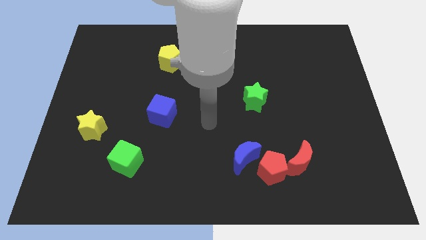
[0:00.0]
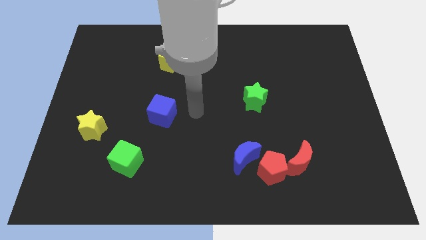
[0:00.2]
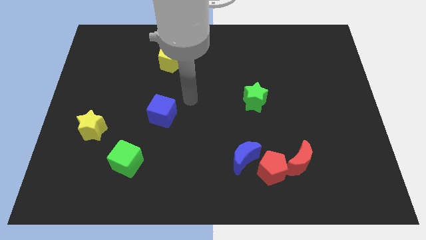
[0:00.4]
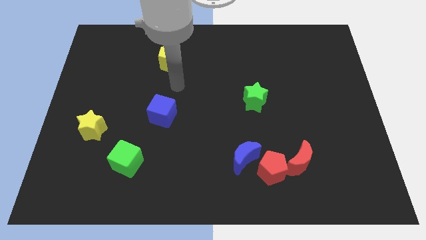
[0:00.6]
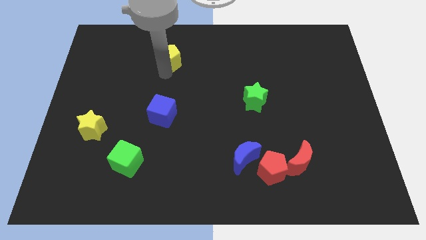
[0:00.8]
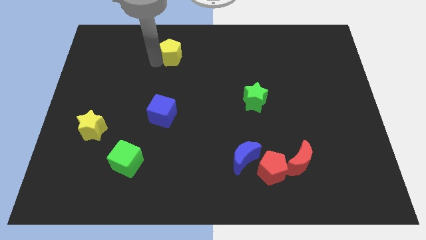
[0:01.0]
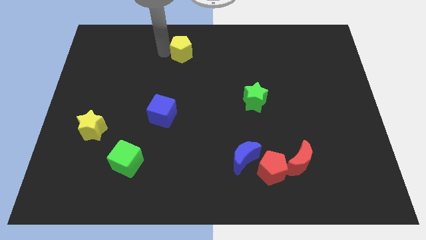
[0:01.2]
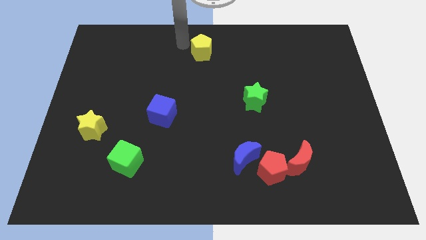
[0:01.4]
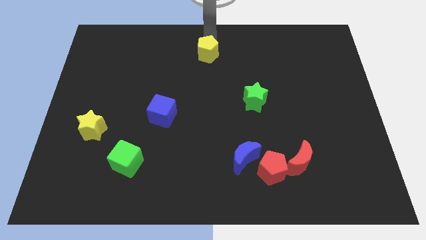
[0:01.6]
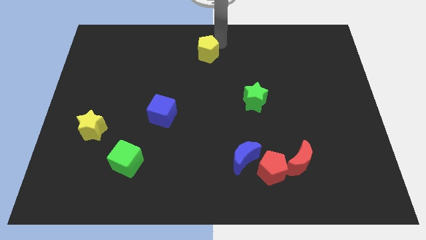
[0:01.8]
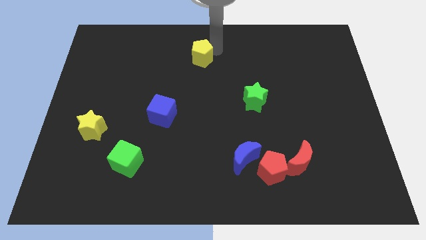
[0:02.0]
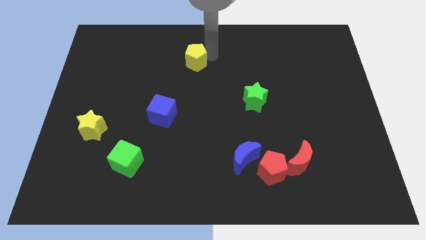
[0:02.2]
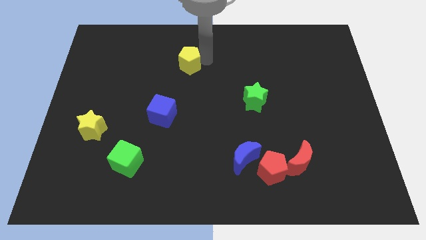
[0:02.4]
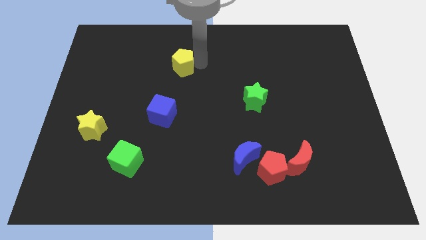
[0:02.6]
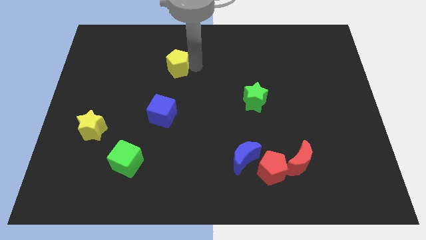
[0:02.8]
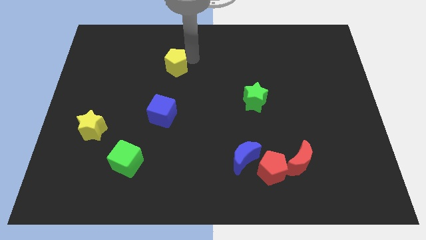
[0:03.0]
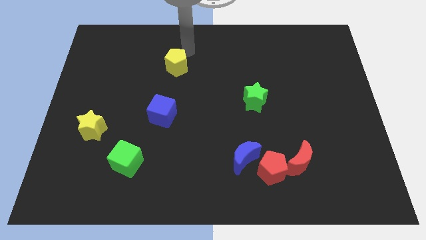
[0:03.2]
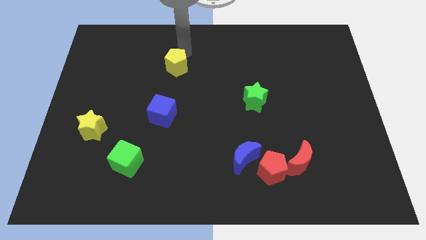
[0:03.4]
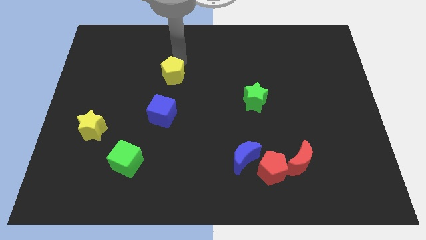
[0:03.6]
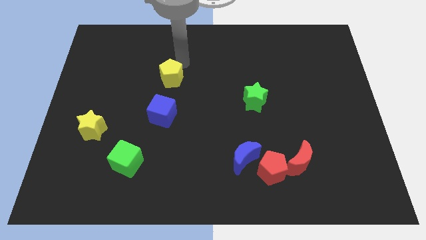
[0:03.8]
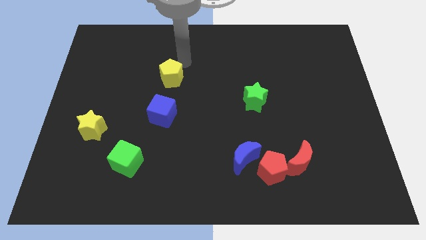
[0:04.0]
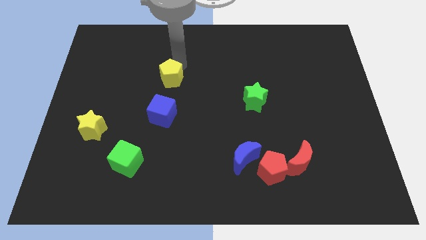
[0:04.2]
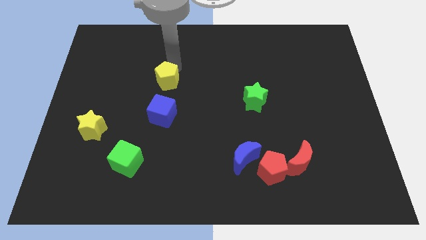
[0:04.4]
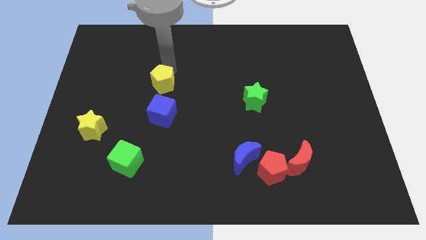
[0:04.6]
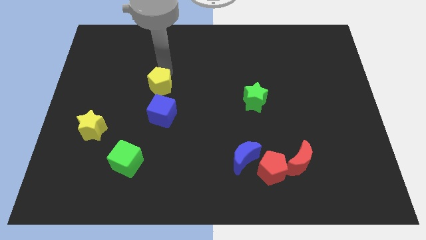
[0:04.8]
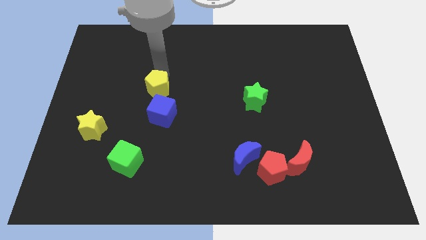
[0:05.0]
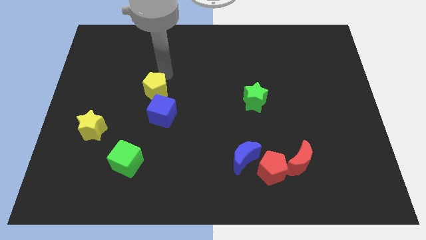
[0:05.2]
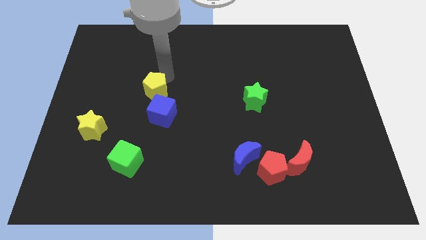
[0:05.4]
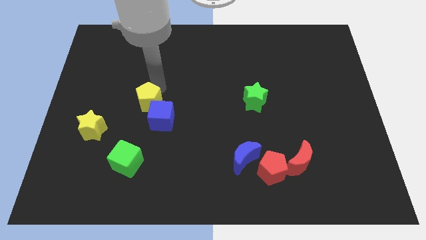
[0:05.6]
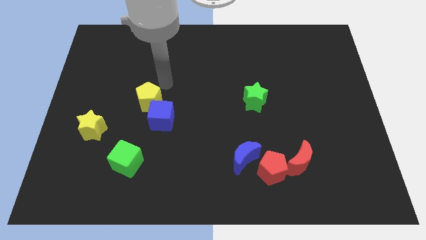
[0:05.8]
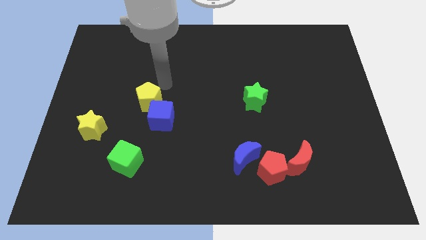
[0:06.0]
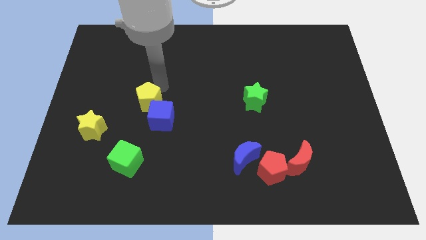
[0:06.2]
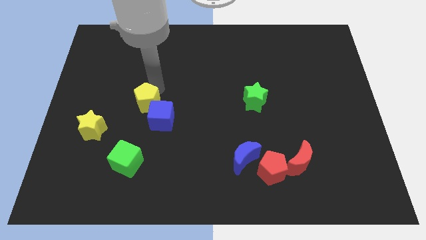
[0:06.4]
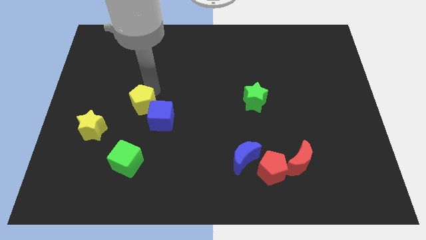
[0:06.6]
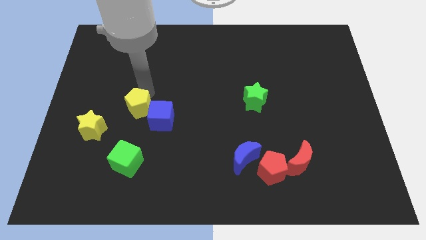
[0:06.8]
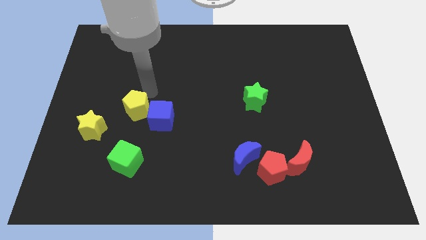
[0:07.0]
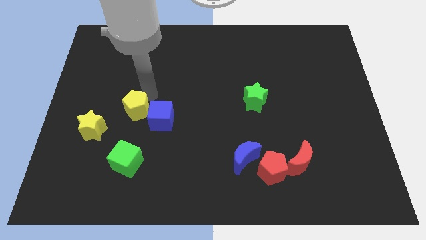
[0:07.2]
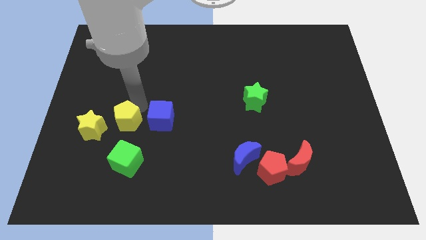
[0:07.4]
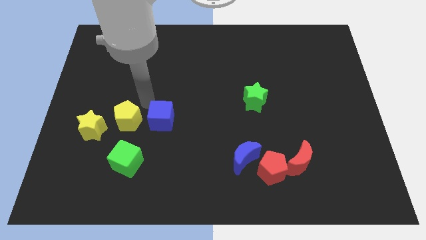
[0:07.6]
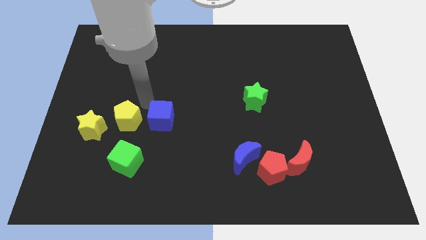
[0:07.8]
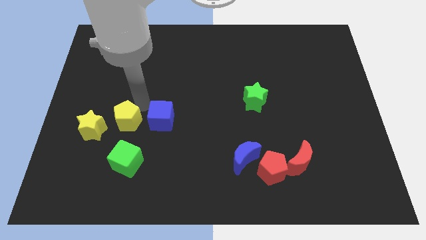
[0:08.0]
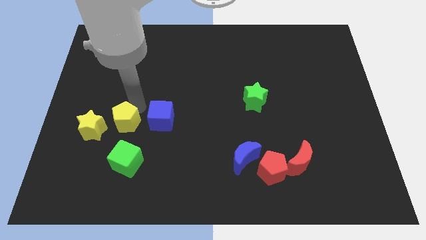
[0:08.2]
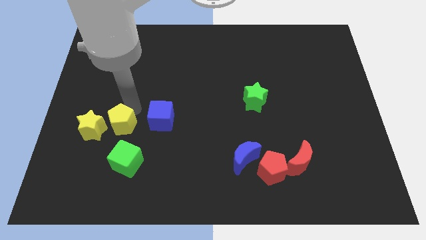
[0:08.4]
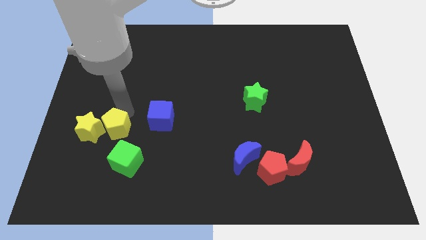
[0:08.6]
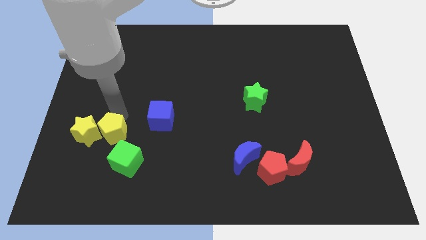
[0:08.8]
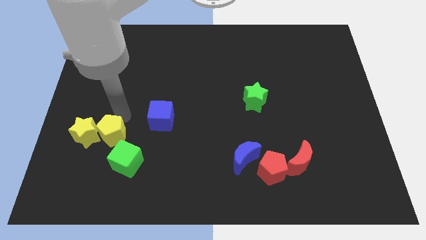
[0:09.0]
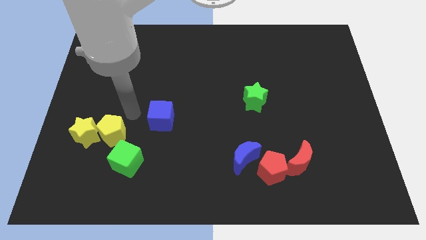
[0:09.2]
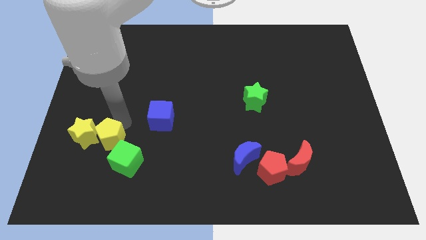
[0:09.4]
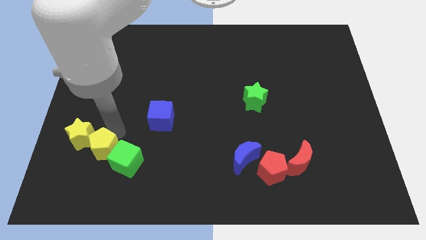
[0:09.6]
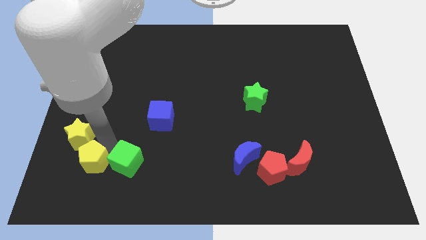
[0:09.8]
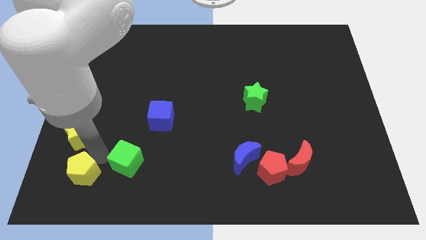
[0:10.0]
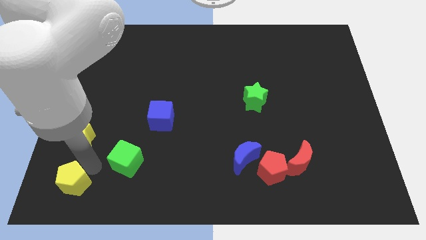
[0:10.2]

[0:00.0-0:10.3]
move the yellow pentagon to the bottom left corner

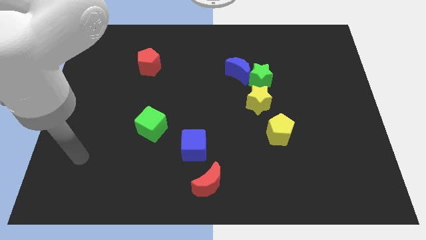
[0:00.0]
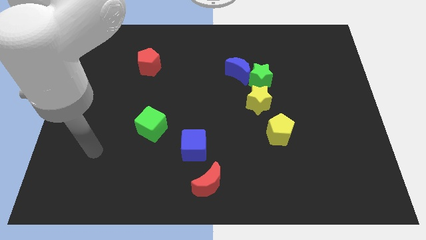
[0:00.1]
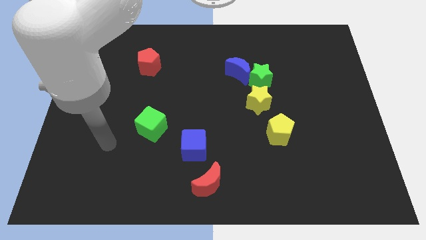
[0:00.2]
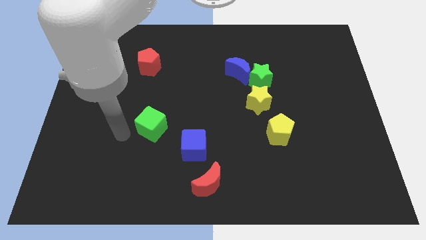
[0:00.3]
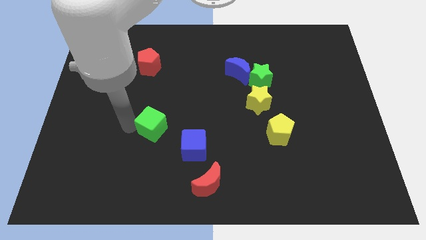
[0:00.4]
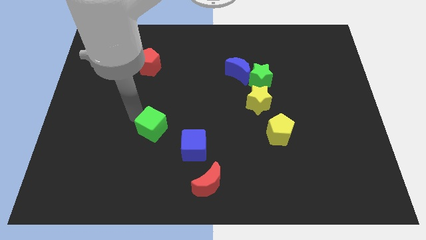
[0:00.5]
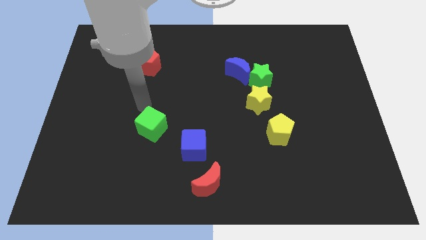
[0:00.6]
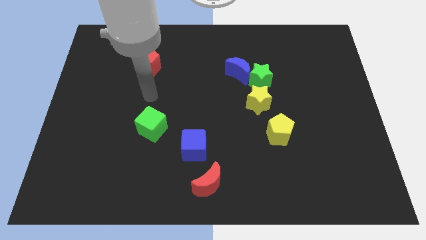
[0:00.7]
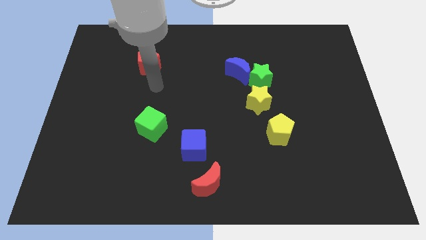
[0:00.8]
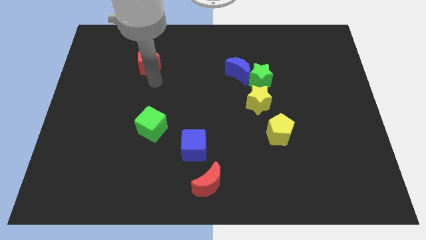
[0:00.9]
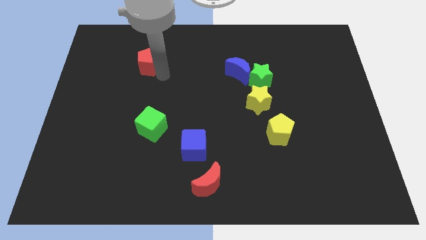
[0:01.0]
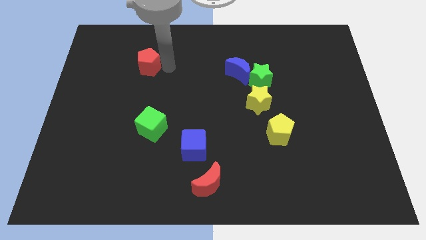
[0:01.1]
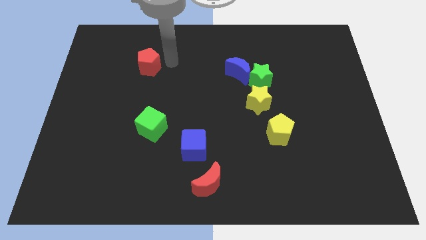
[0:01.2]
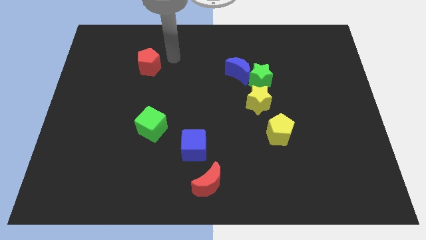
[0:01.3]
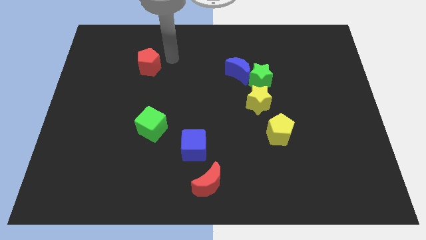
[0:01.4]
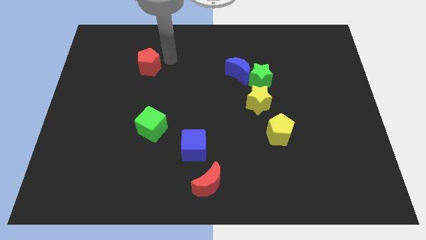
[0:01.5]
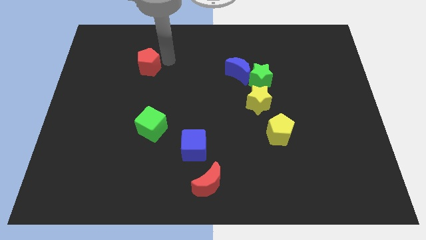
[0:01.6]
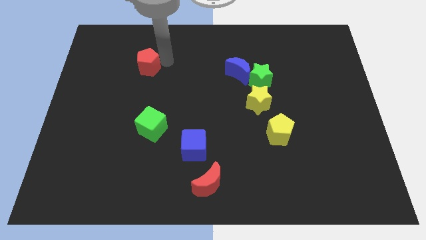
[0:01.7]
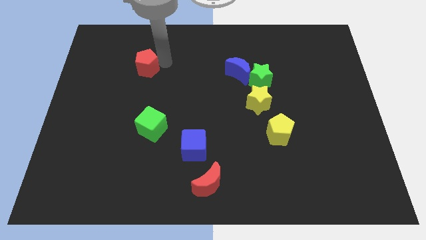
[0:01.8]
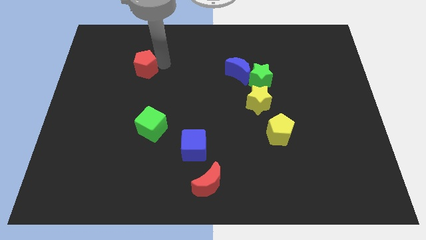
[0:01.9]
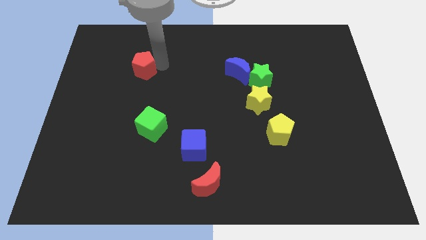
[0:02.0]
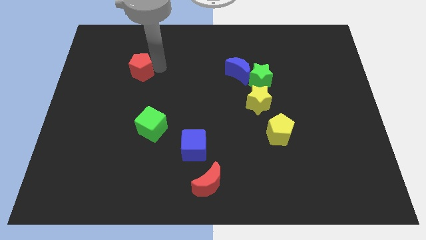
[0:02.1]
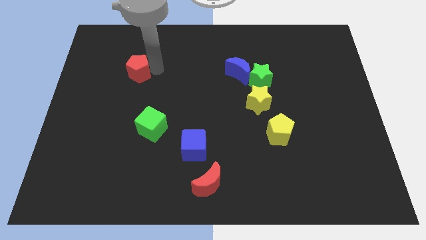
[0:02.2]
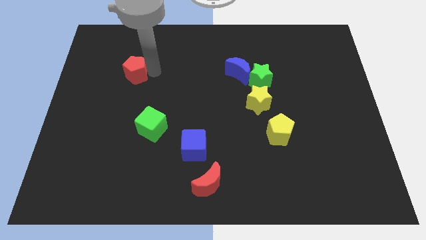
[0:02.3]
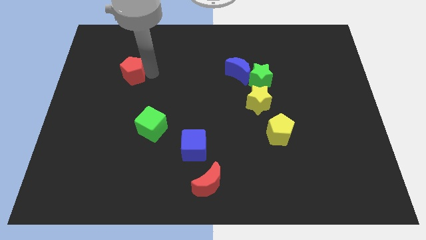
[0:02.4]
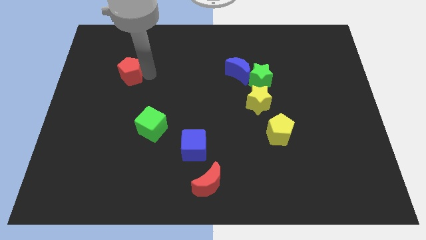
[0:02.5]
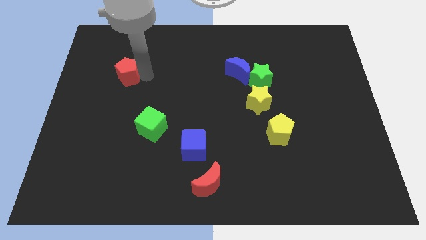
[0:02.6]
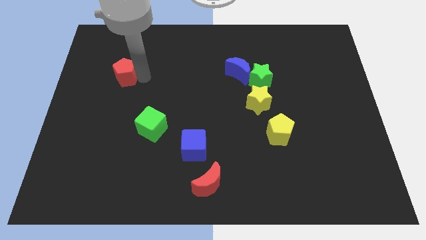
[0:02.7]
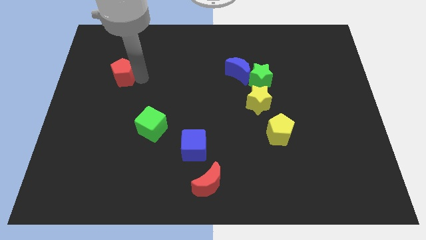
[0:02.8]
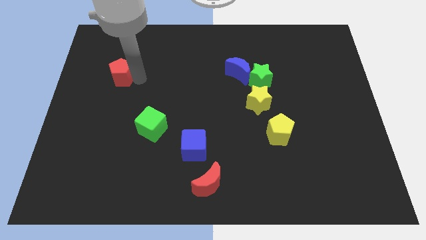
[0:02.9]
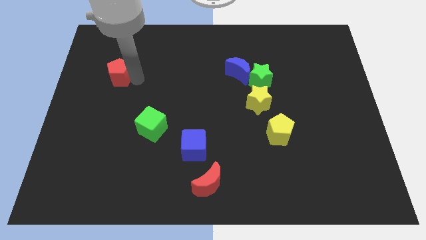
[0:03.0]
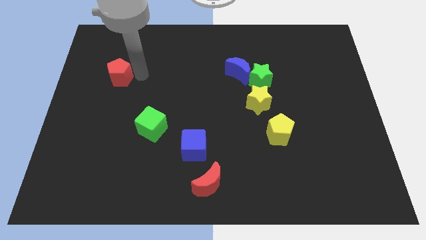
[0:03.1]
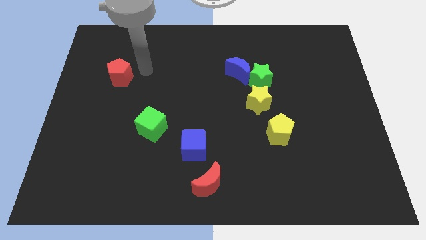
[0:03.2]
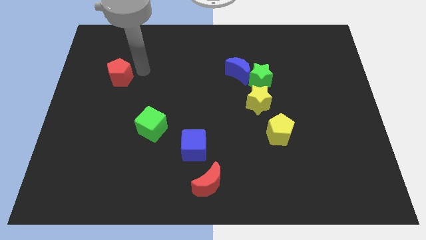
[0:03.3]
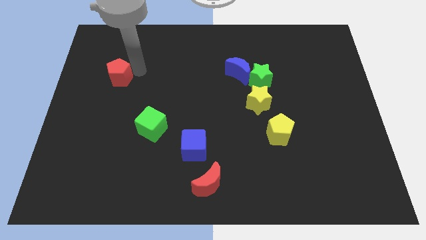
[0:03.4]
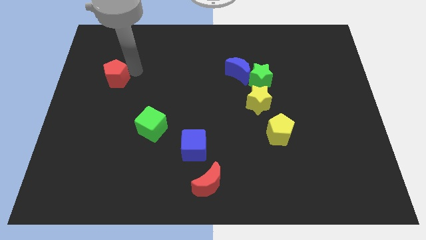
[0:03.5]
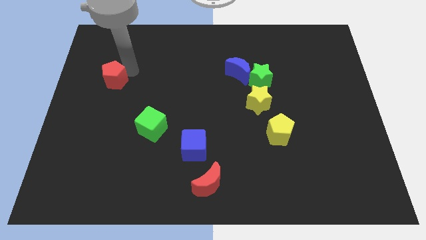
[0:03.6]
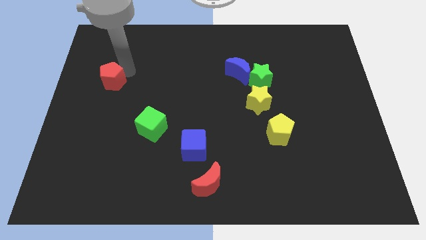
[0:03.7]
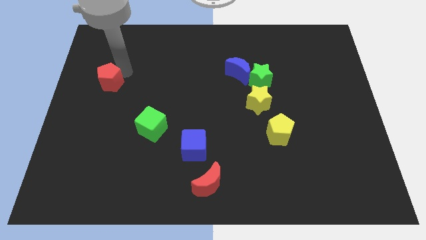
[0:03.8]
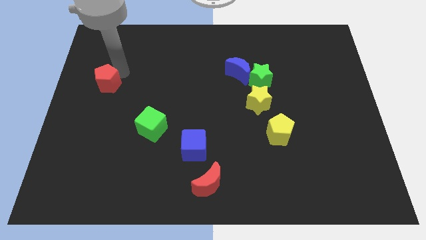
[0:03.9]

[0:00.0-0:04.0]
slide the red pentagon to the center left
